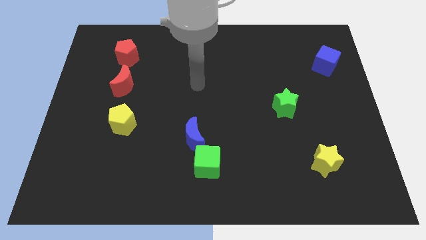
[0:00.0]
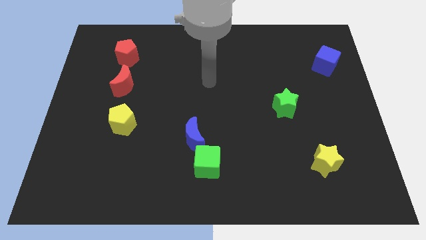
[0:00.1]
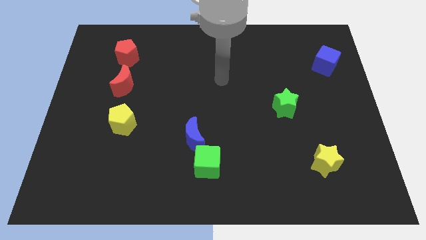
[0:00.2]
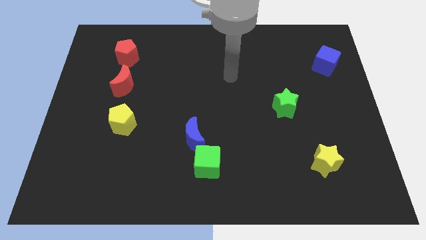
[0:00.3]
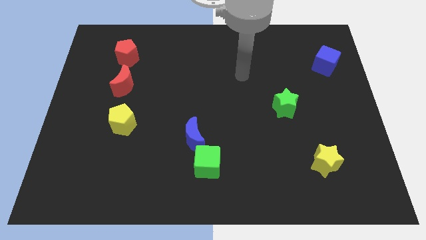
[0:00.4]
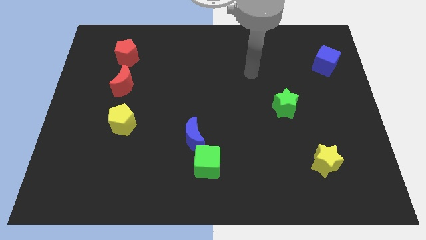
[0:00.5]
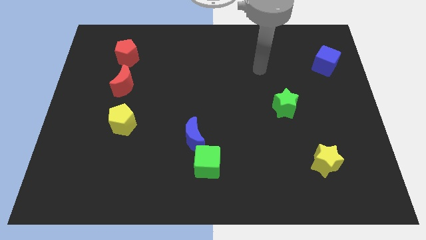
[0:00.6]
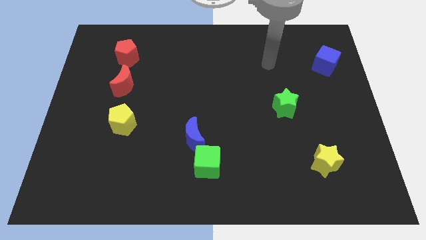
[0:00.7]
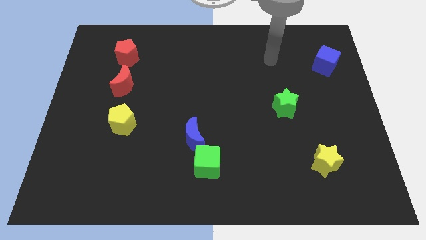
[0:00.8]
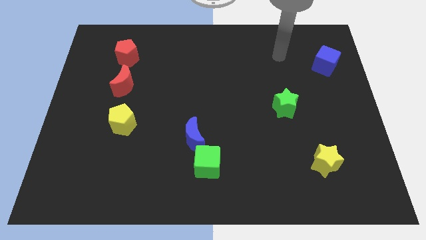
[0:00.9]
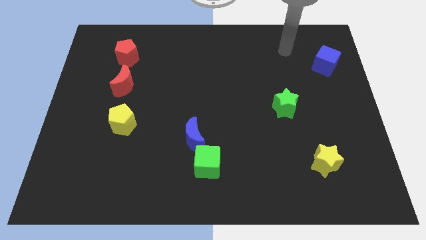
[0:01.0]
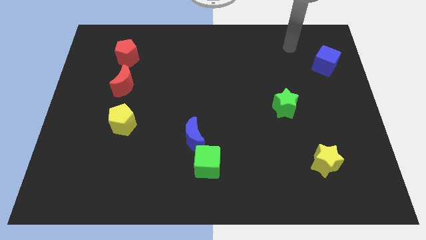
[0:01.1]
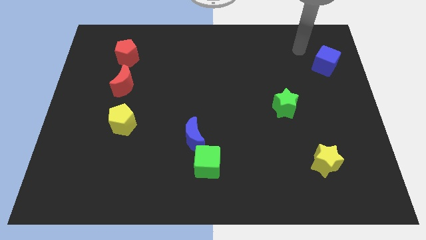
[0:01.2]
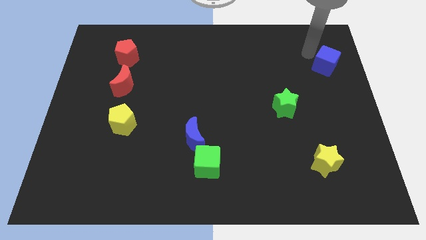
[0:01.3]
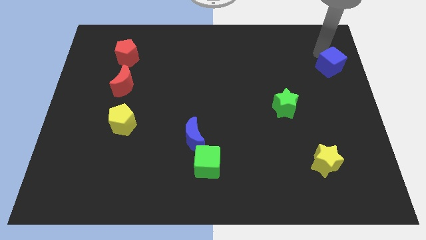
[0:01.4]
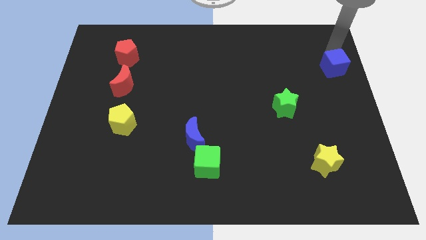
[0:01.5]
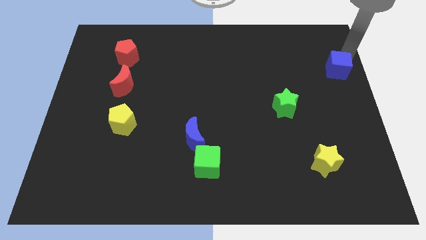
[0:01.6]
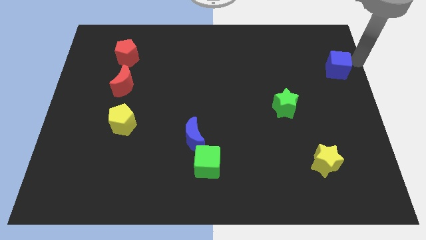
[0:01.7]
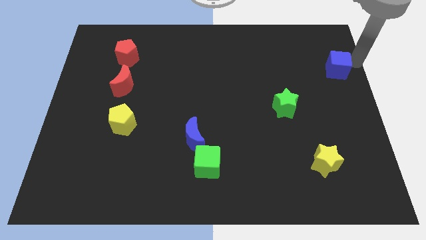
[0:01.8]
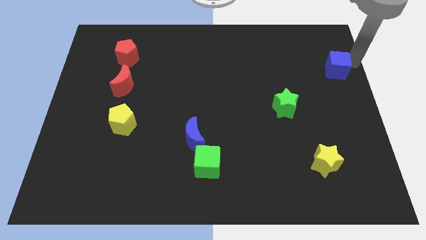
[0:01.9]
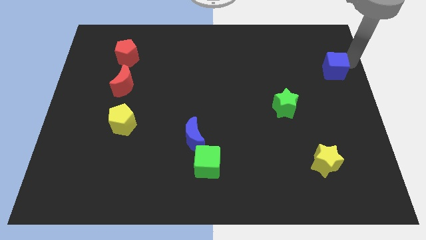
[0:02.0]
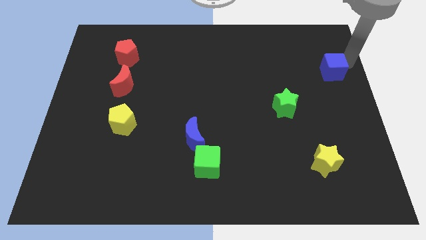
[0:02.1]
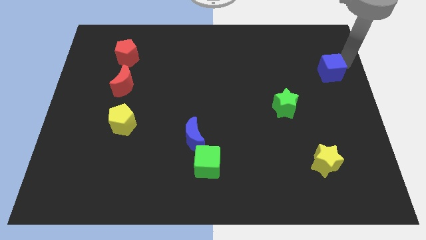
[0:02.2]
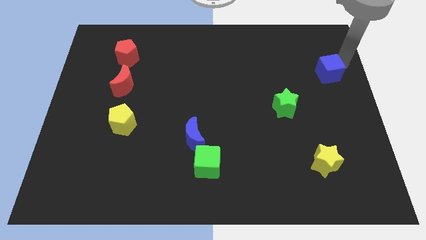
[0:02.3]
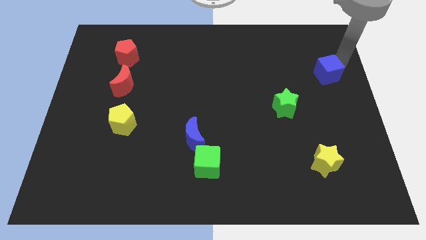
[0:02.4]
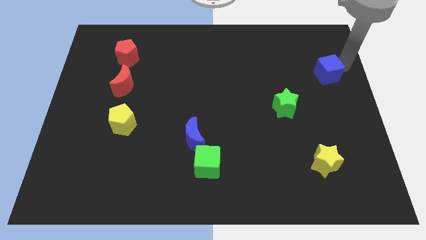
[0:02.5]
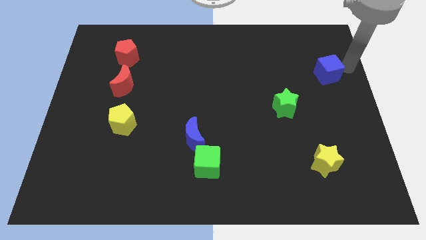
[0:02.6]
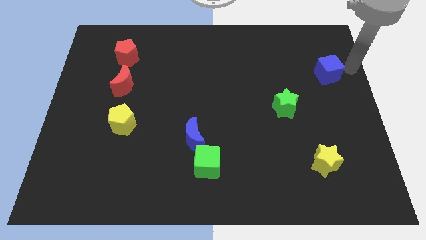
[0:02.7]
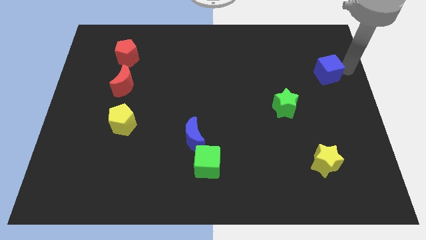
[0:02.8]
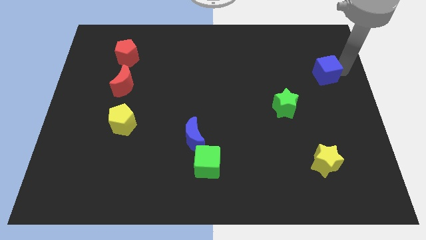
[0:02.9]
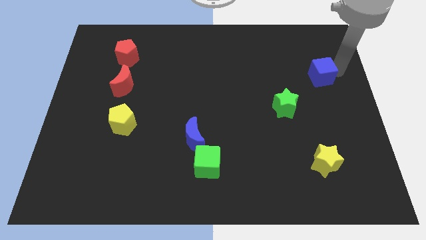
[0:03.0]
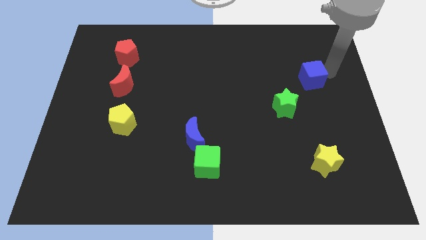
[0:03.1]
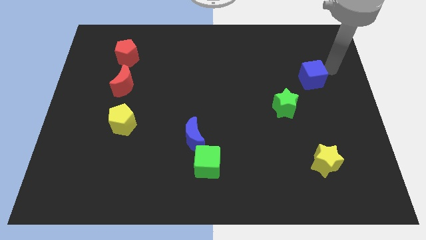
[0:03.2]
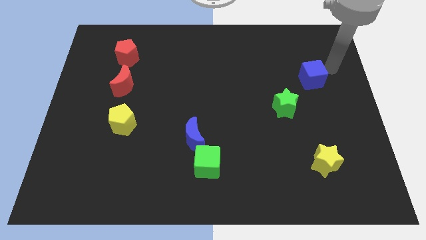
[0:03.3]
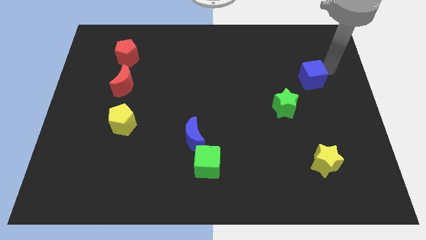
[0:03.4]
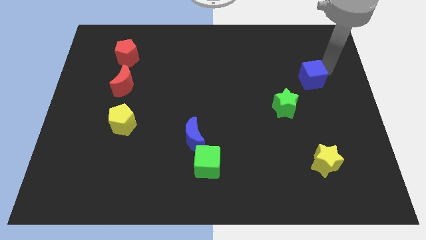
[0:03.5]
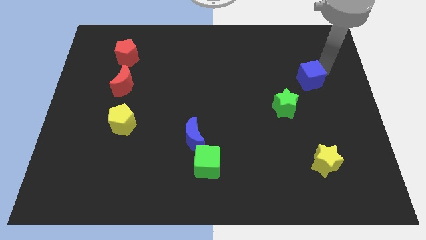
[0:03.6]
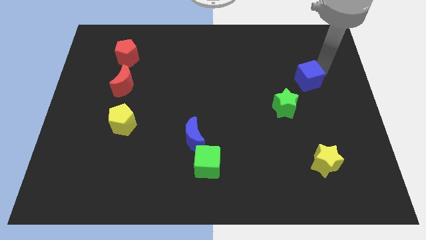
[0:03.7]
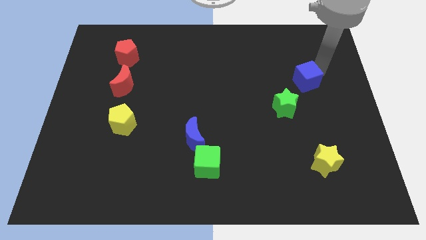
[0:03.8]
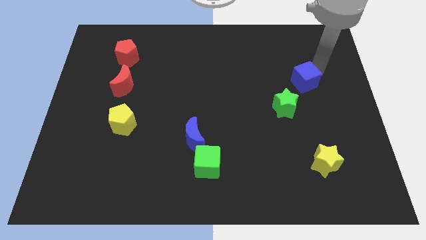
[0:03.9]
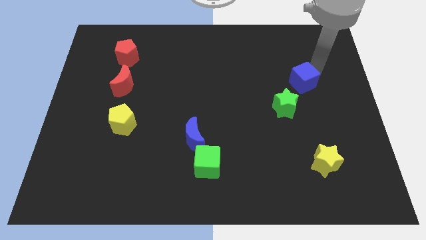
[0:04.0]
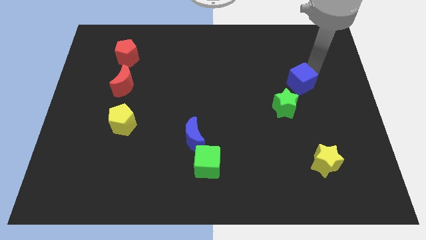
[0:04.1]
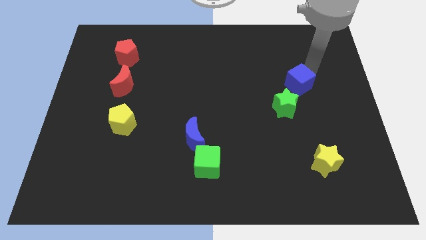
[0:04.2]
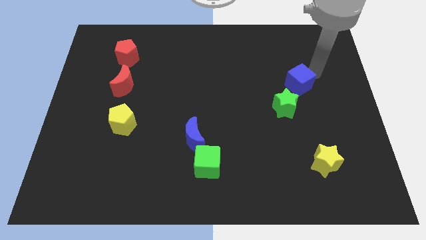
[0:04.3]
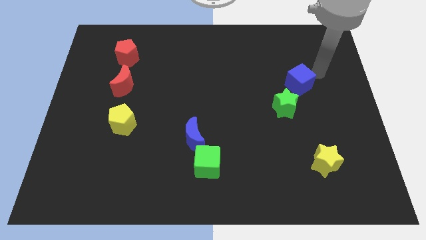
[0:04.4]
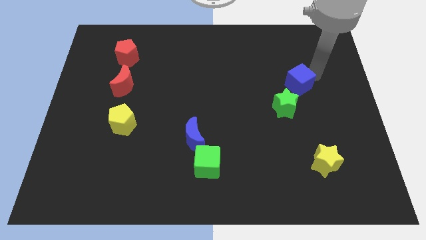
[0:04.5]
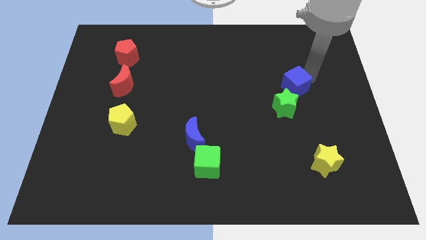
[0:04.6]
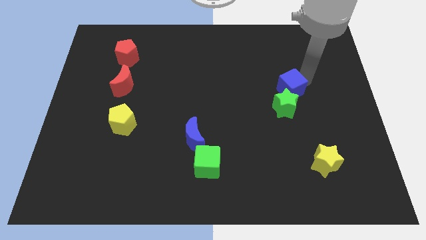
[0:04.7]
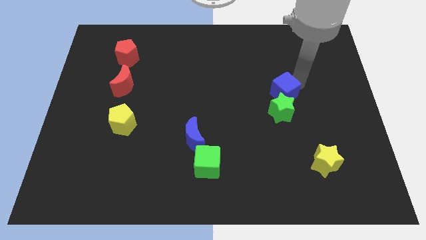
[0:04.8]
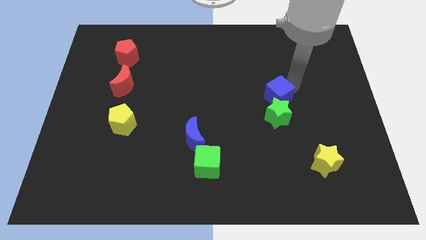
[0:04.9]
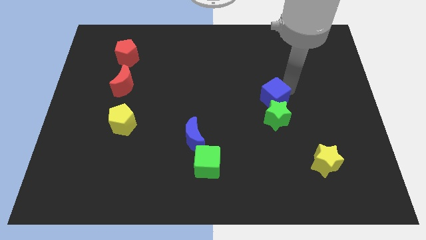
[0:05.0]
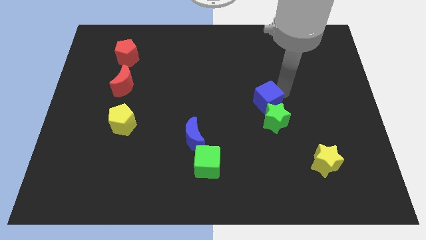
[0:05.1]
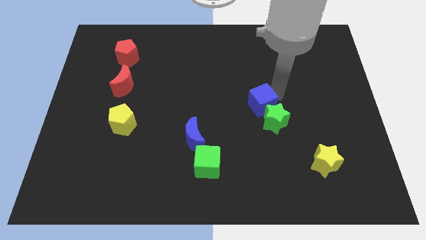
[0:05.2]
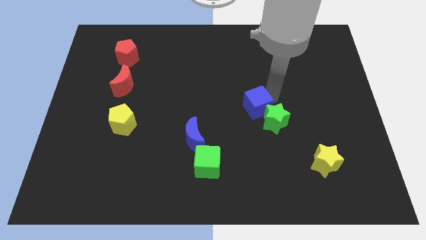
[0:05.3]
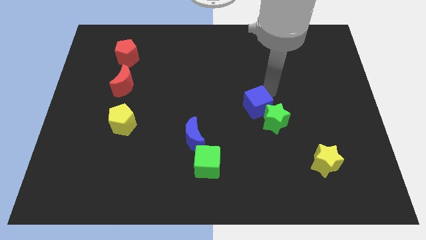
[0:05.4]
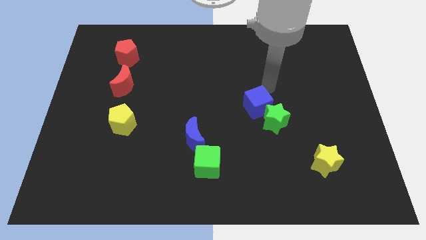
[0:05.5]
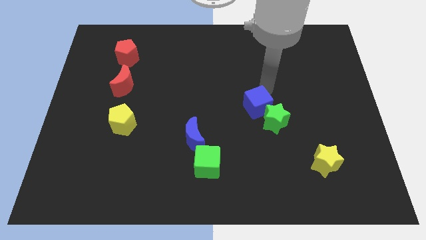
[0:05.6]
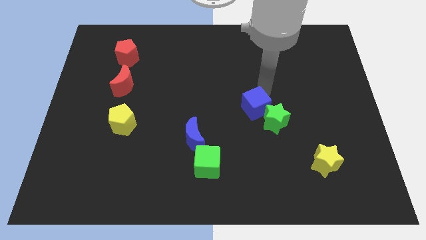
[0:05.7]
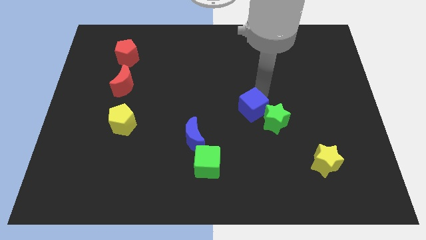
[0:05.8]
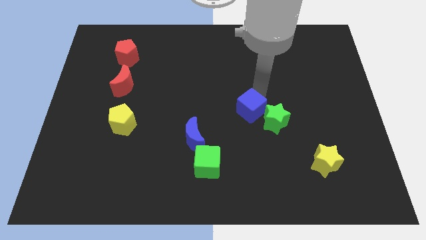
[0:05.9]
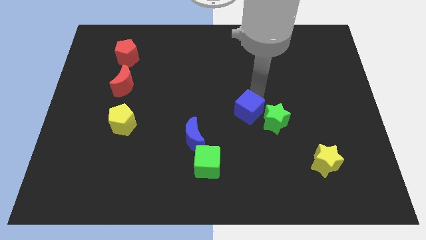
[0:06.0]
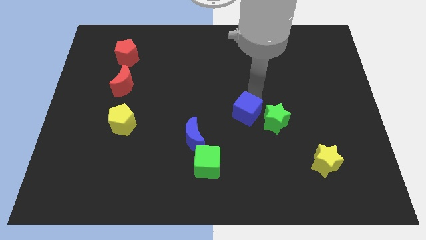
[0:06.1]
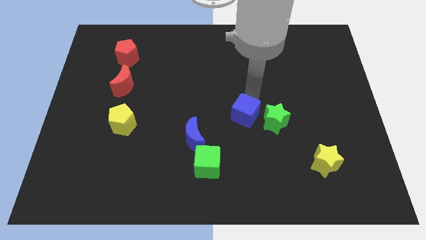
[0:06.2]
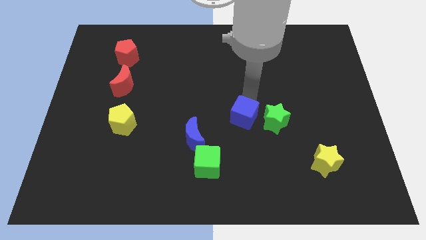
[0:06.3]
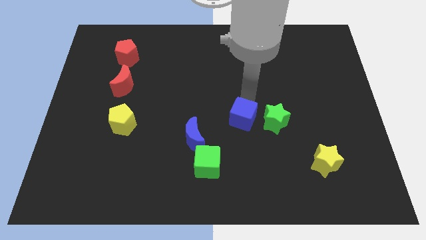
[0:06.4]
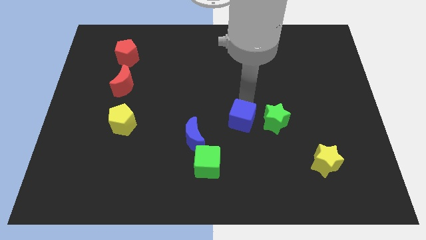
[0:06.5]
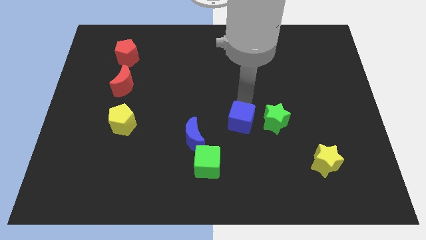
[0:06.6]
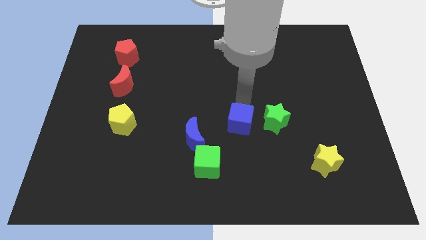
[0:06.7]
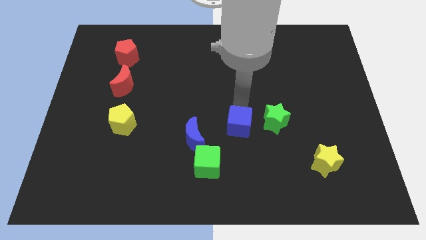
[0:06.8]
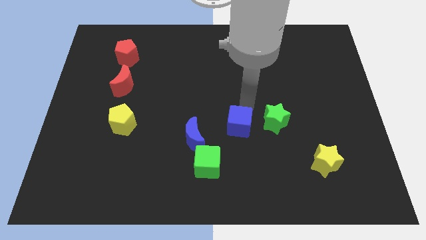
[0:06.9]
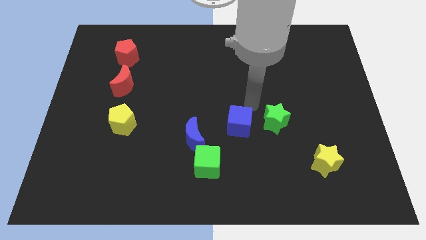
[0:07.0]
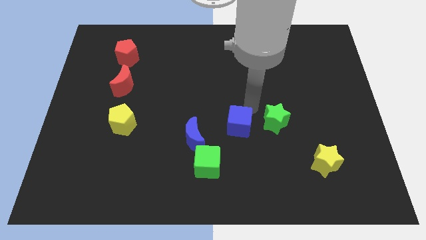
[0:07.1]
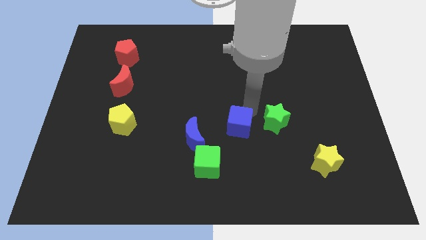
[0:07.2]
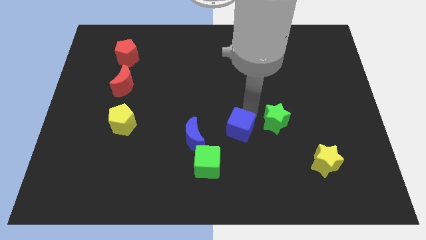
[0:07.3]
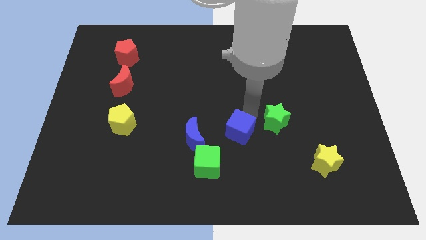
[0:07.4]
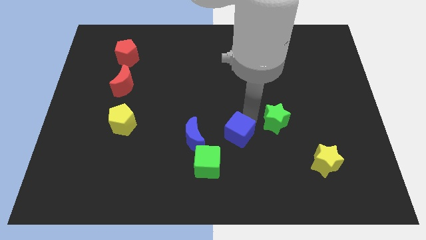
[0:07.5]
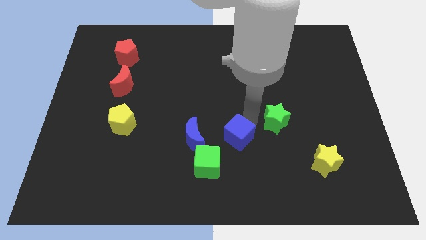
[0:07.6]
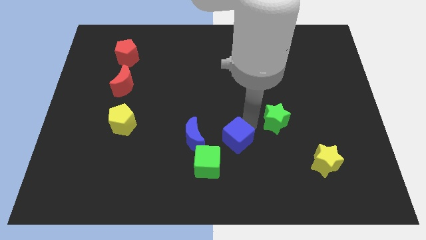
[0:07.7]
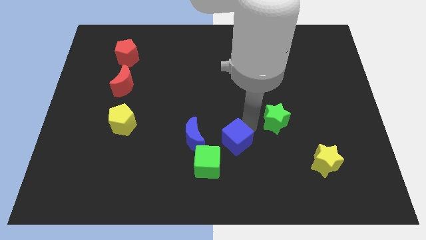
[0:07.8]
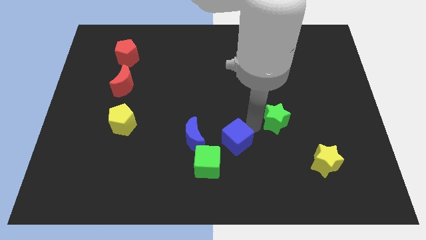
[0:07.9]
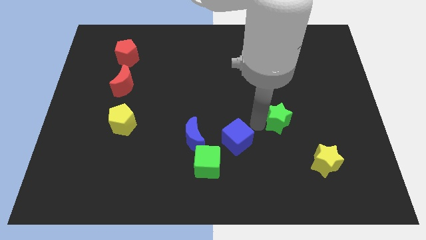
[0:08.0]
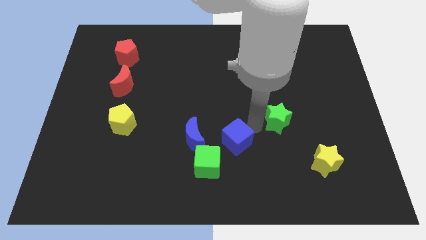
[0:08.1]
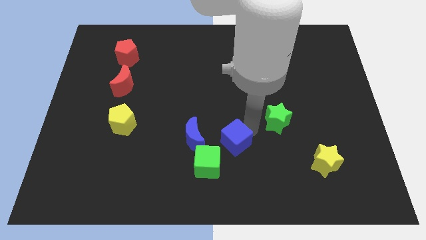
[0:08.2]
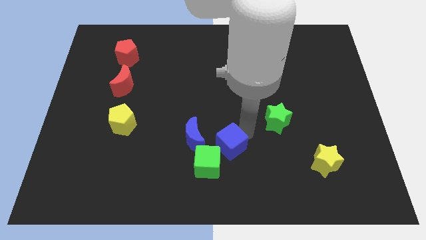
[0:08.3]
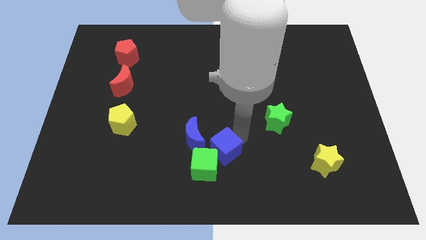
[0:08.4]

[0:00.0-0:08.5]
move the blue cube to the green cube
